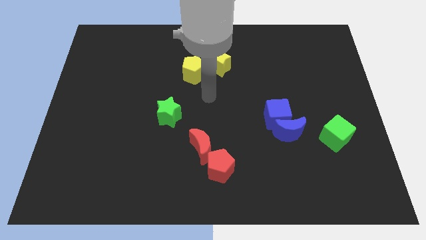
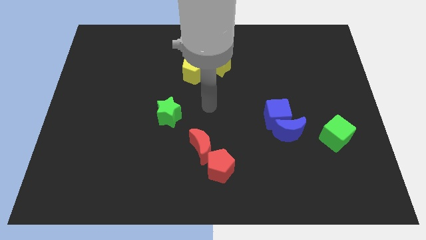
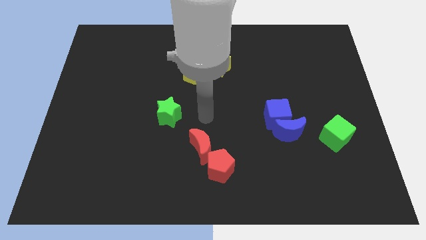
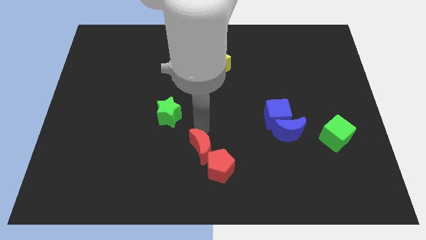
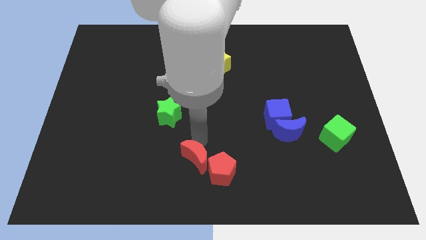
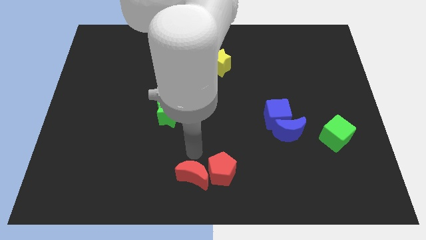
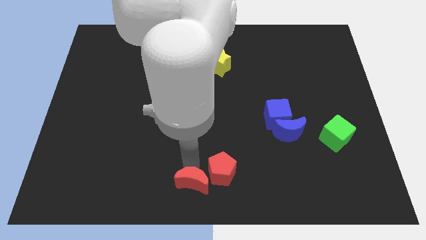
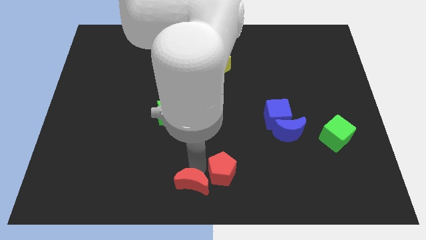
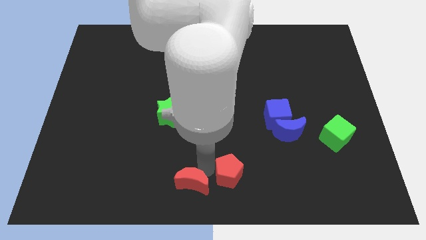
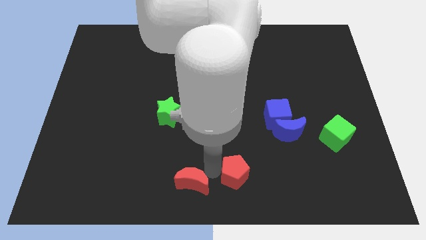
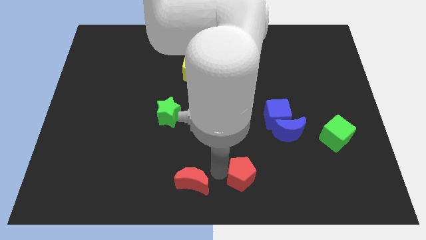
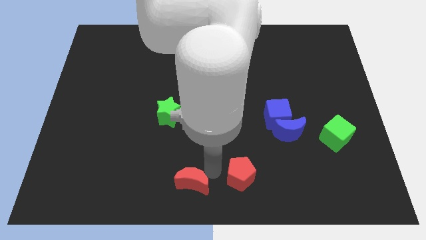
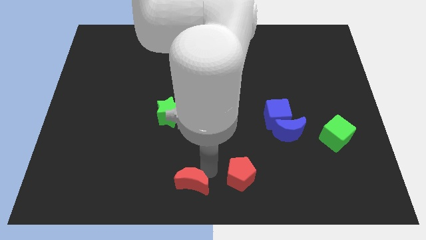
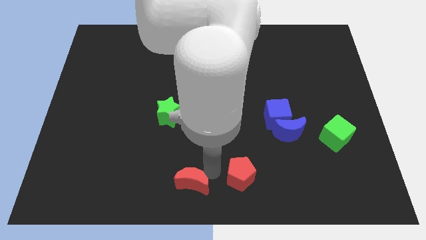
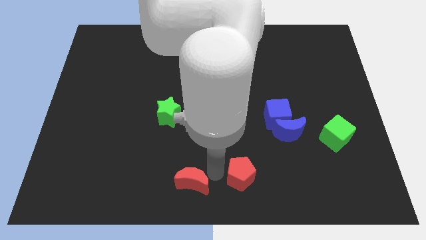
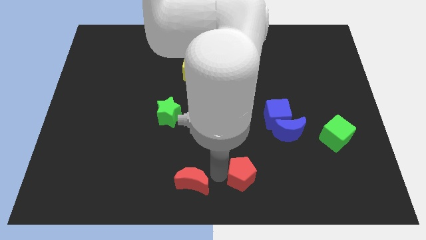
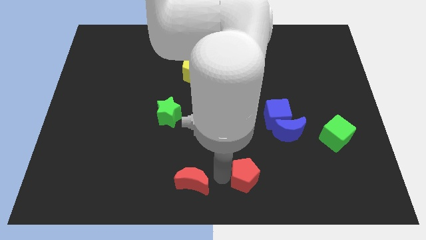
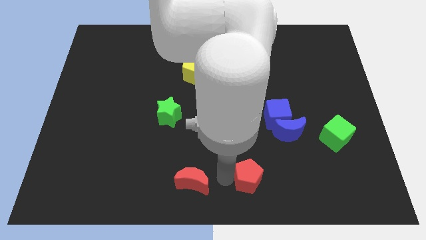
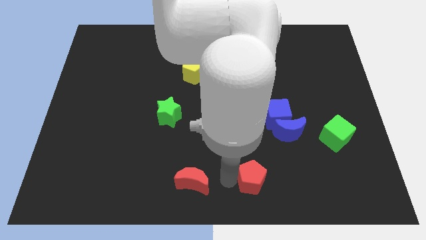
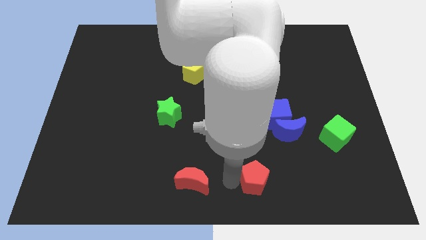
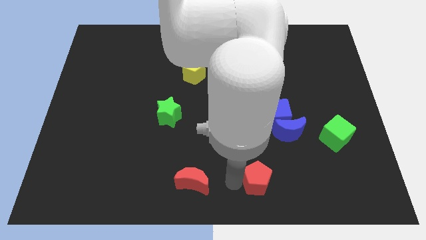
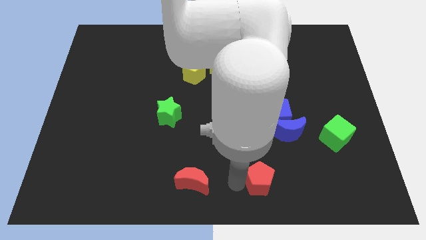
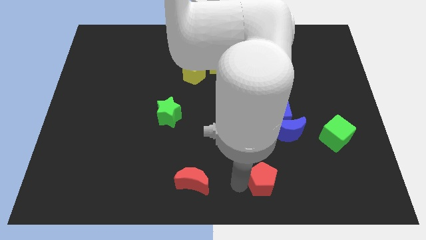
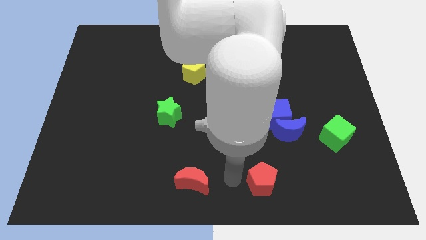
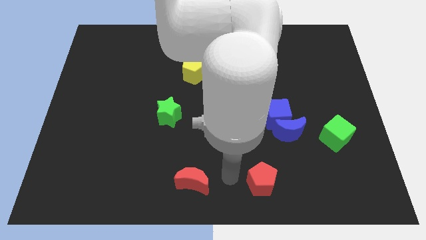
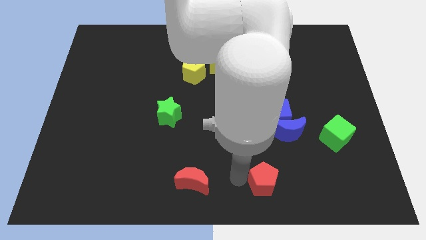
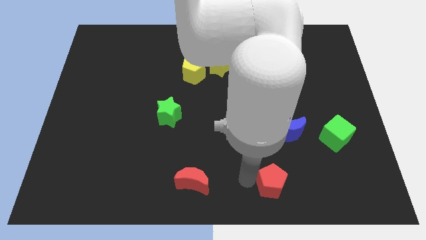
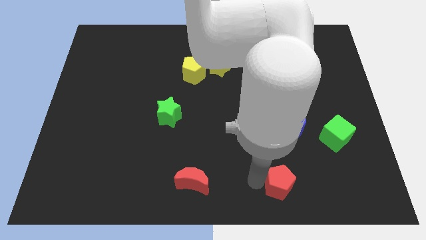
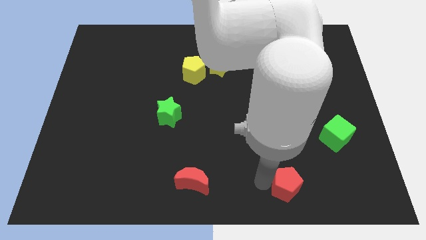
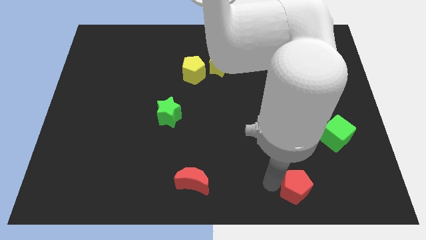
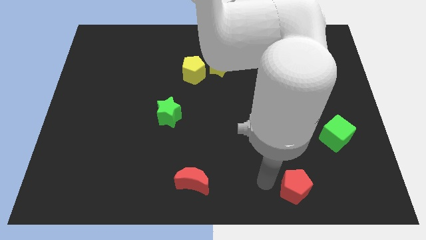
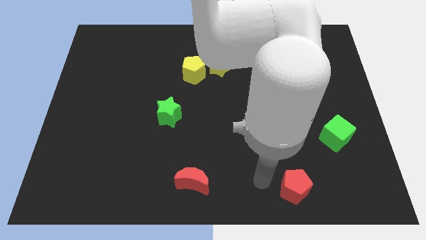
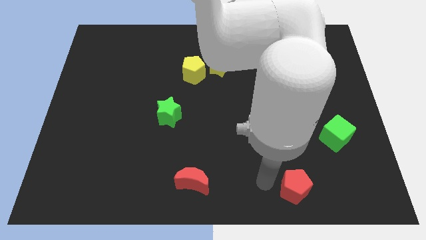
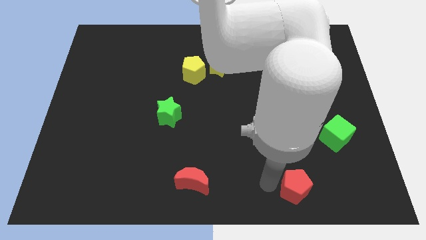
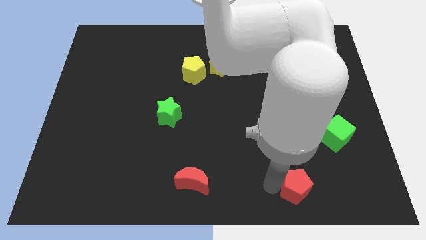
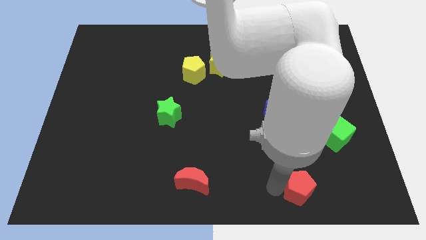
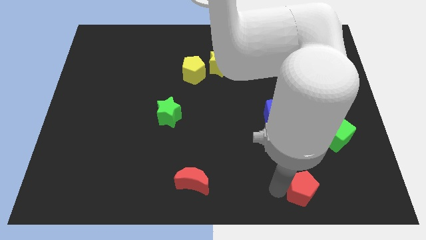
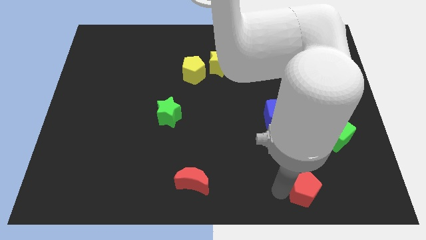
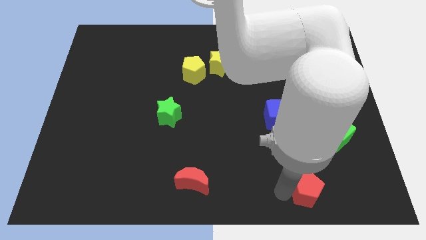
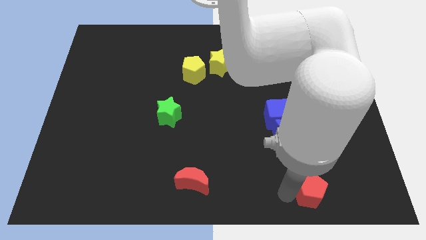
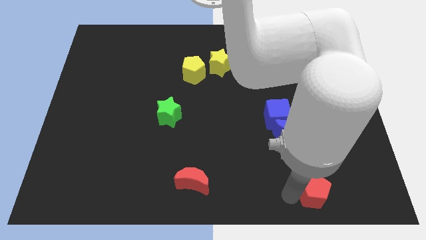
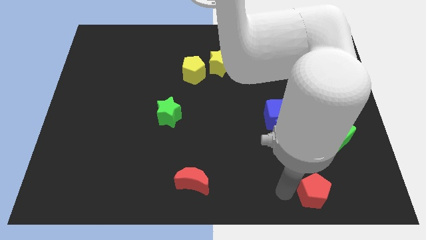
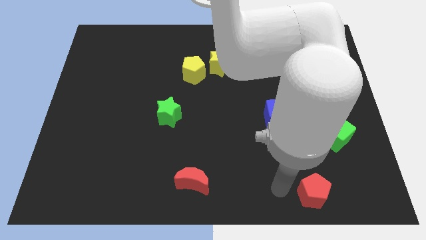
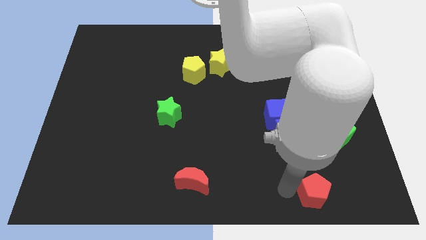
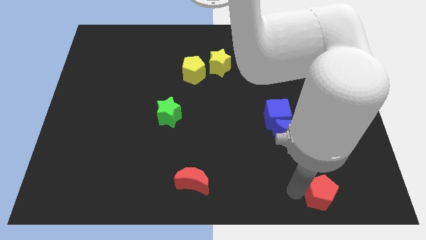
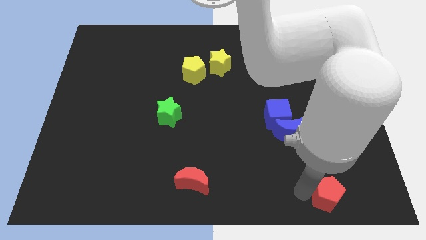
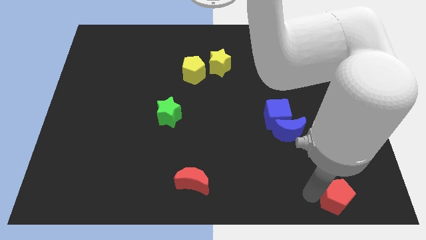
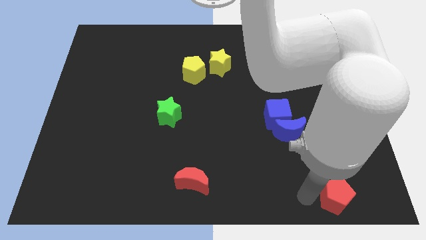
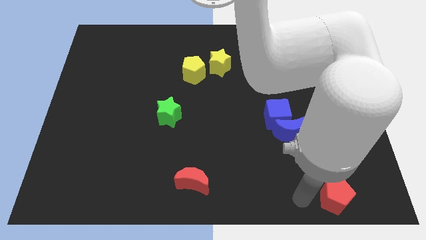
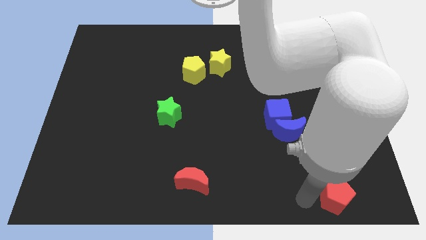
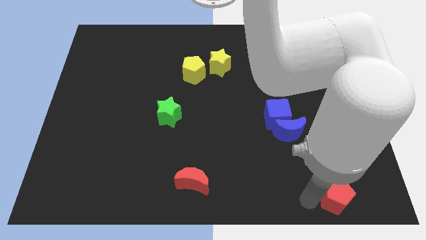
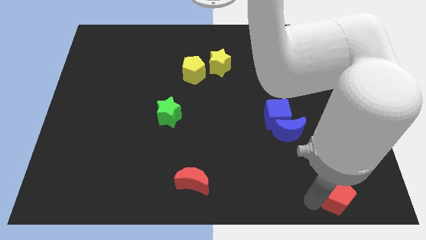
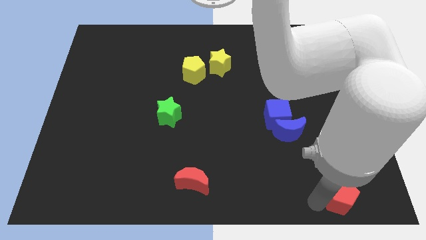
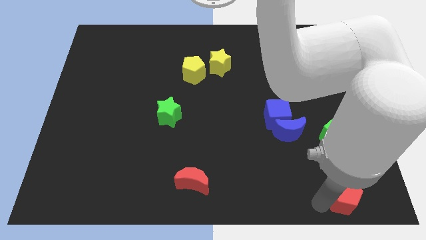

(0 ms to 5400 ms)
slide the red pentagon to the bottom right of the board

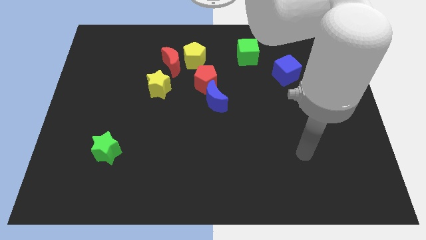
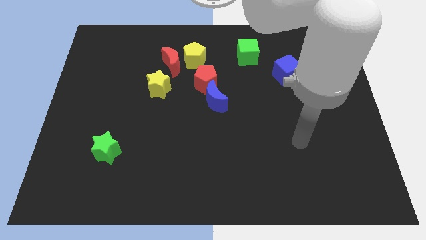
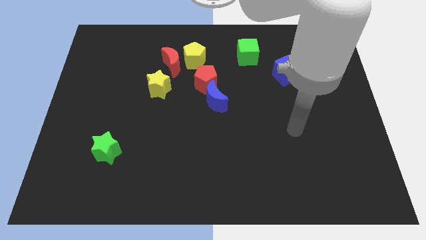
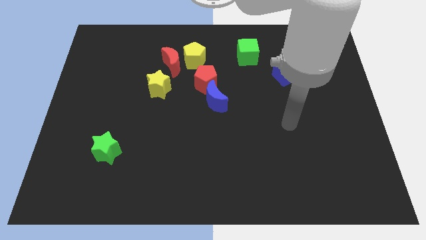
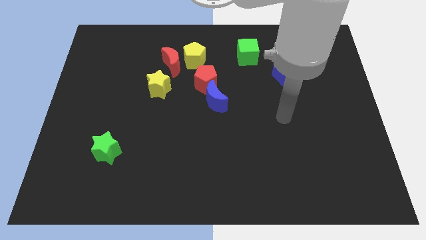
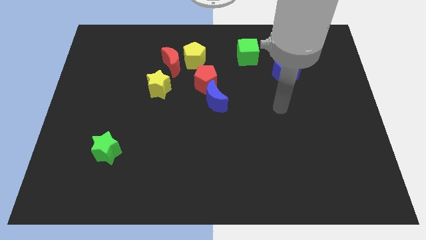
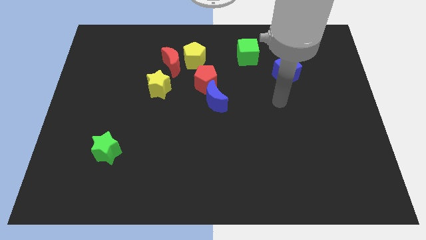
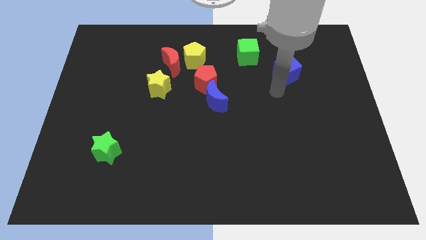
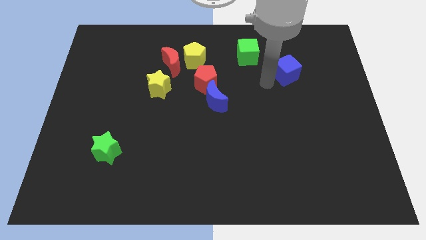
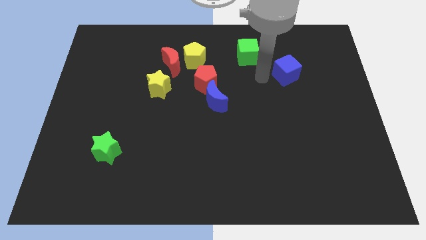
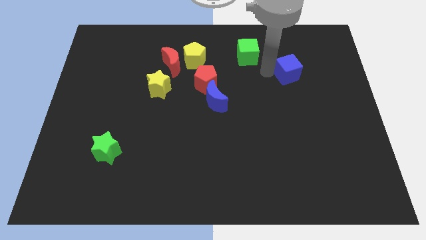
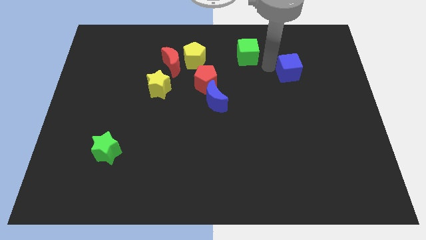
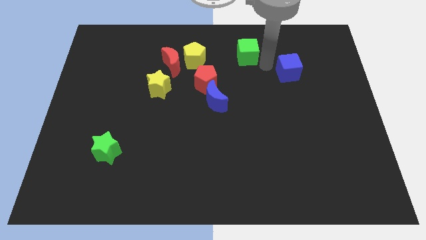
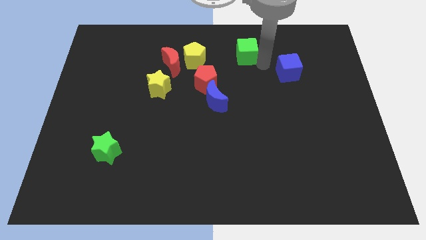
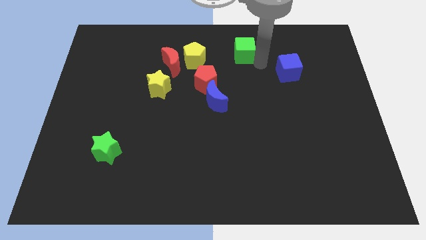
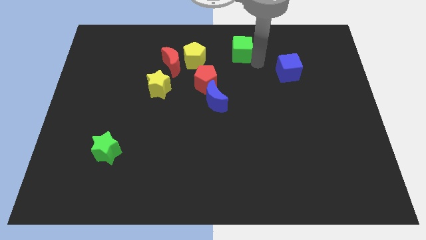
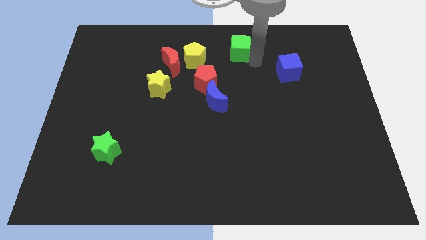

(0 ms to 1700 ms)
put the green cube to the towards your base
